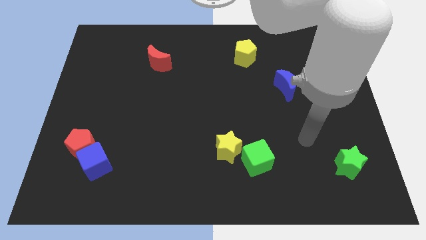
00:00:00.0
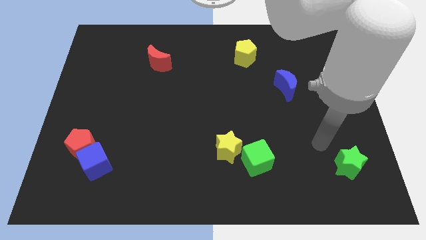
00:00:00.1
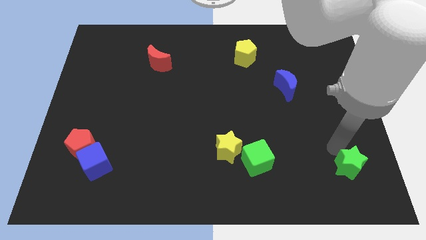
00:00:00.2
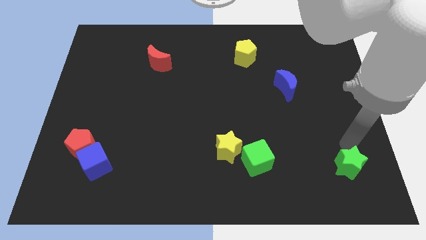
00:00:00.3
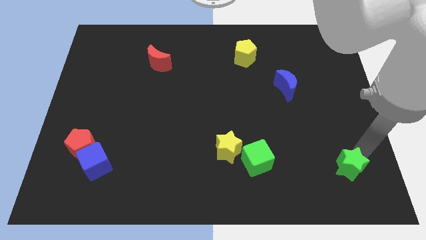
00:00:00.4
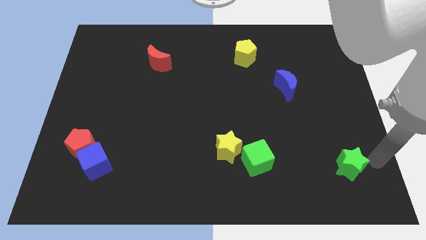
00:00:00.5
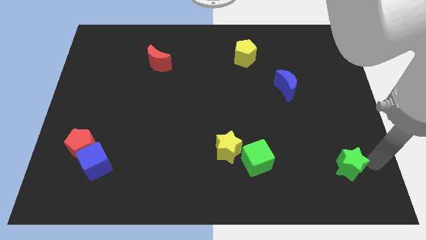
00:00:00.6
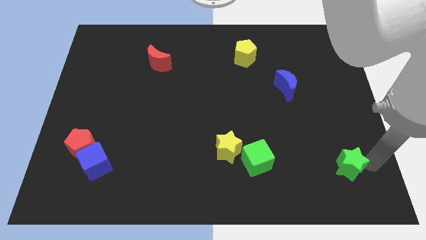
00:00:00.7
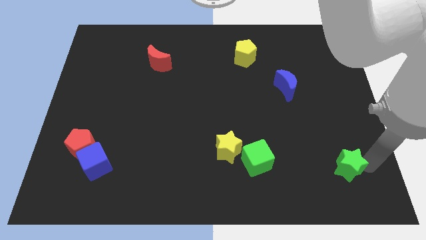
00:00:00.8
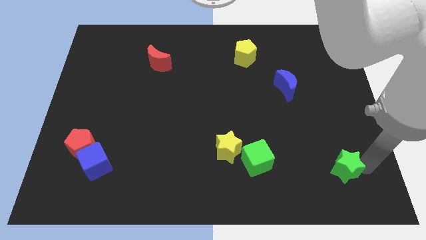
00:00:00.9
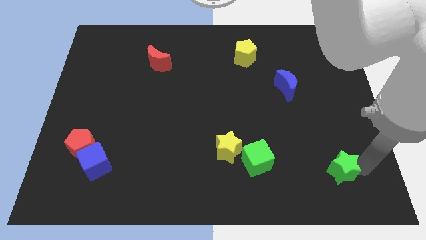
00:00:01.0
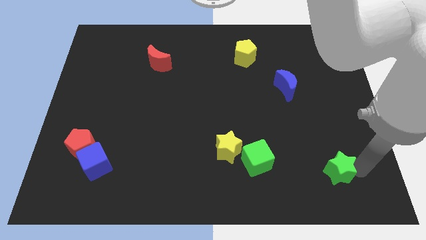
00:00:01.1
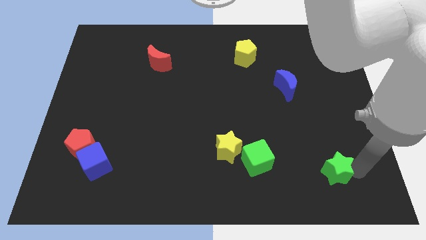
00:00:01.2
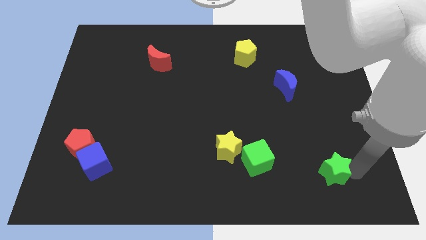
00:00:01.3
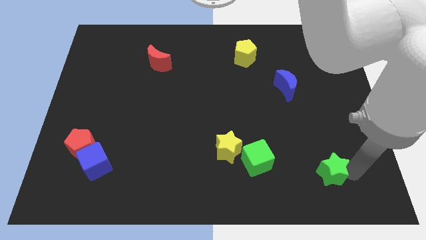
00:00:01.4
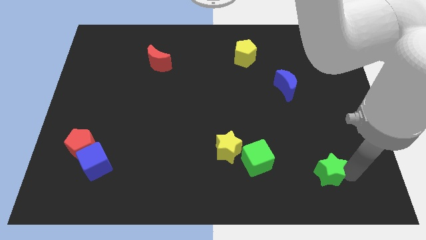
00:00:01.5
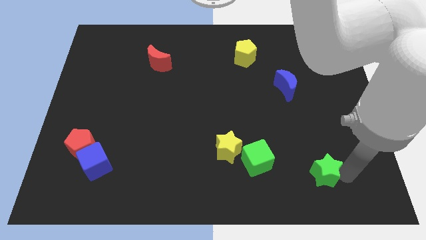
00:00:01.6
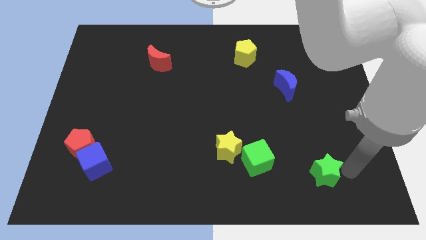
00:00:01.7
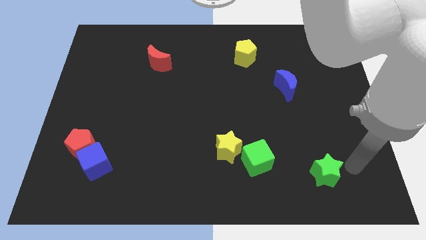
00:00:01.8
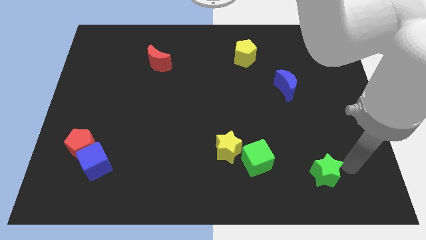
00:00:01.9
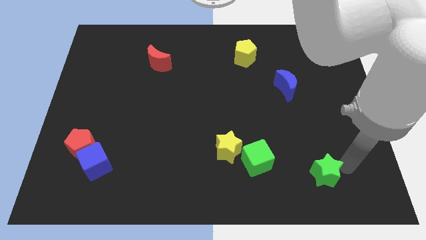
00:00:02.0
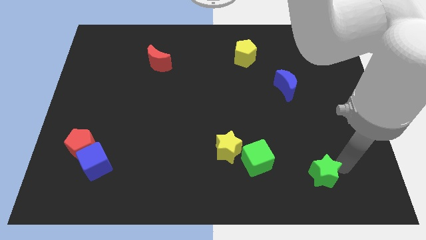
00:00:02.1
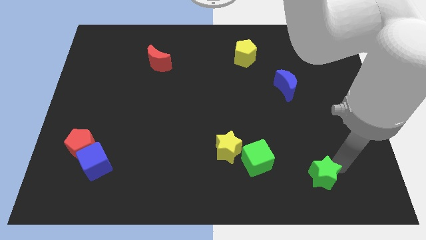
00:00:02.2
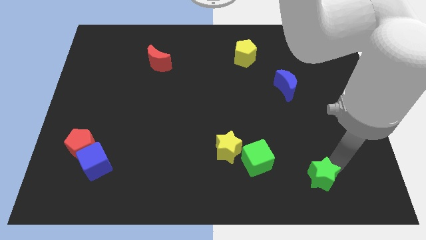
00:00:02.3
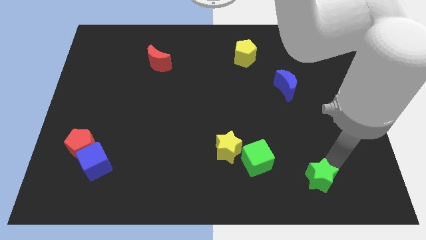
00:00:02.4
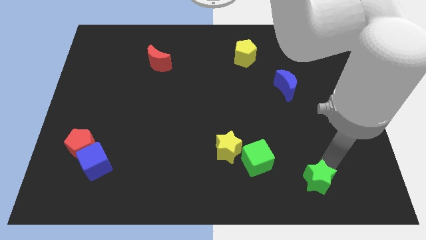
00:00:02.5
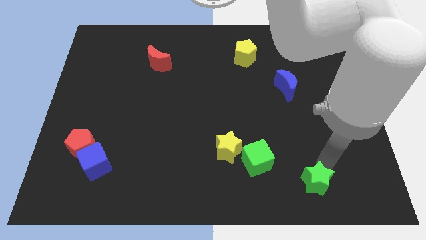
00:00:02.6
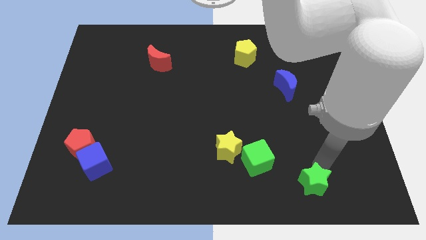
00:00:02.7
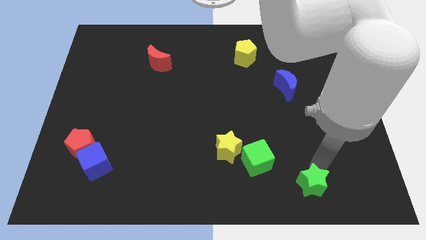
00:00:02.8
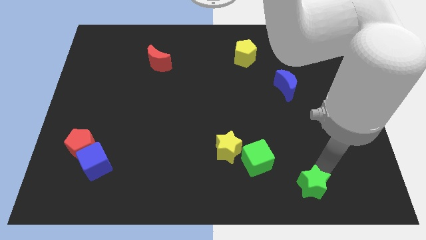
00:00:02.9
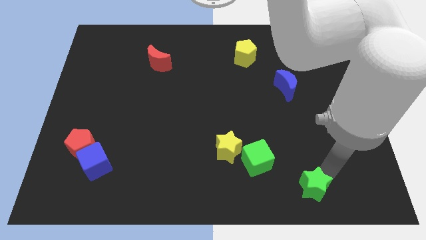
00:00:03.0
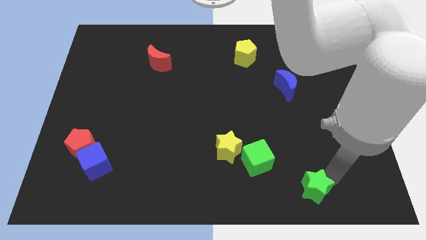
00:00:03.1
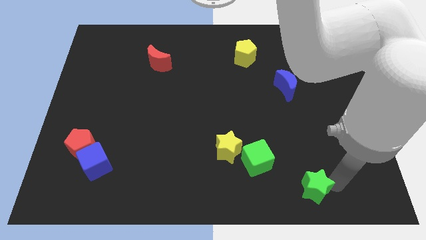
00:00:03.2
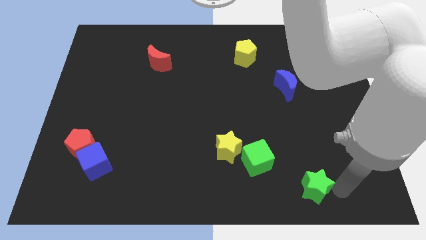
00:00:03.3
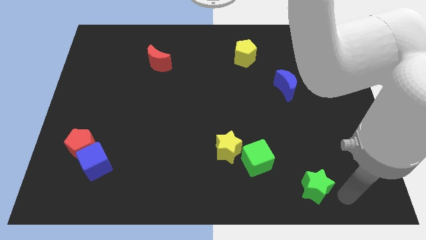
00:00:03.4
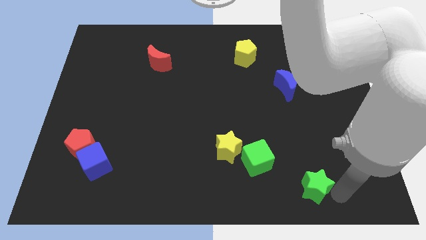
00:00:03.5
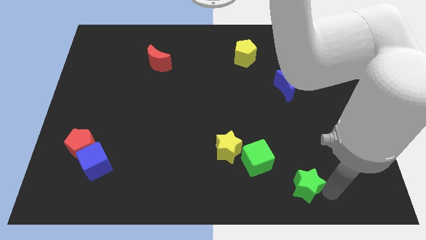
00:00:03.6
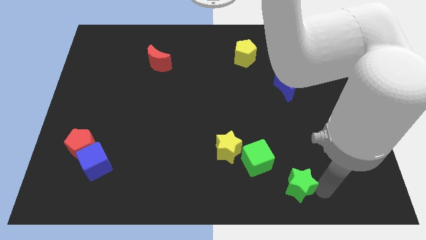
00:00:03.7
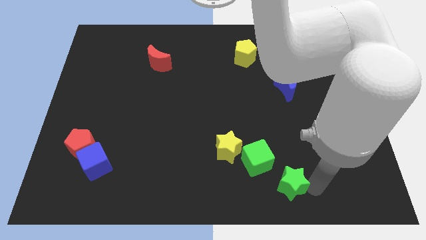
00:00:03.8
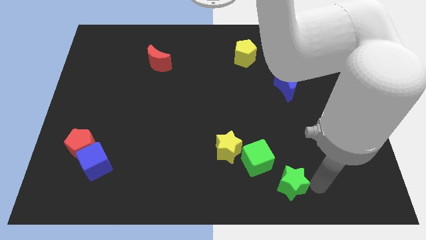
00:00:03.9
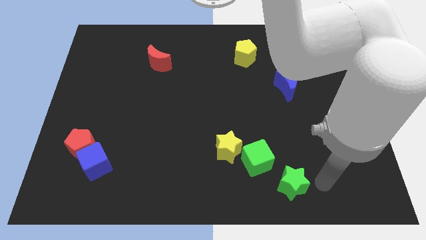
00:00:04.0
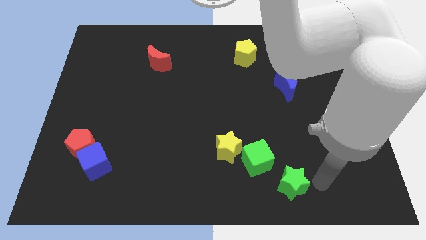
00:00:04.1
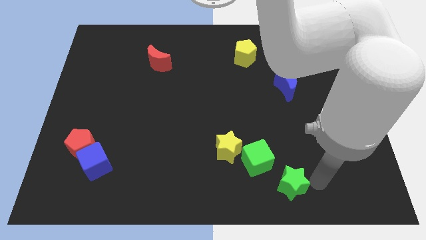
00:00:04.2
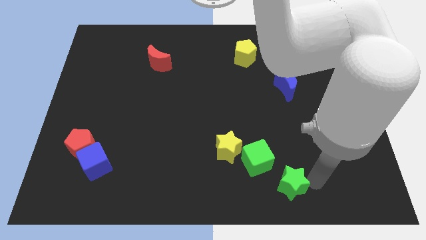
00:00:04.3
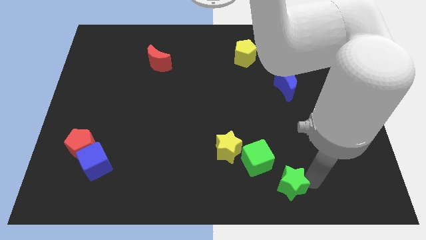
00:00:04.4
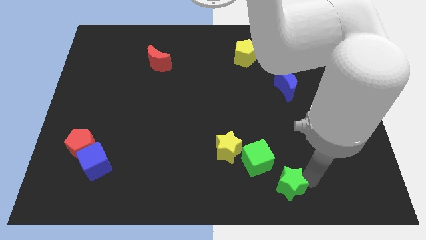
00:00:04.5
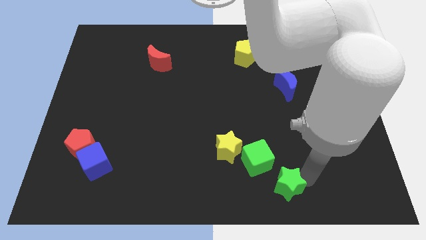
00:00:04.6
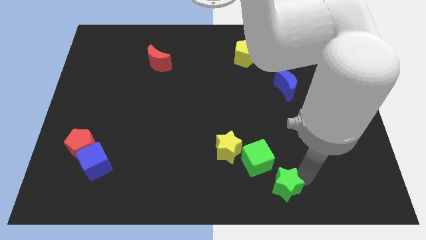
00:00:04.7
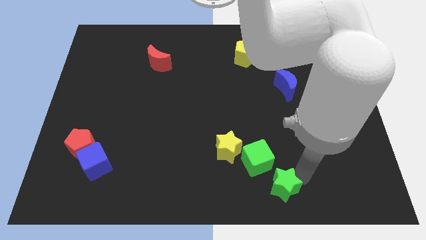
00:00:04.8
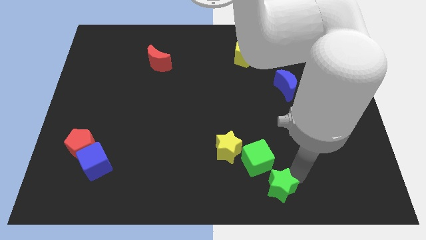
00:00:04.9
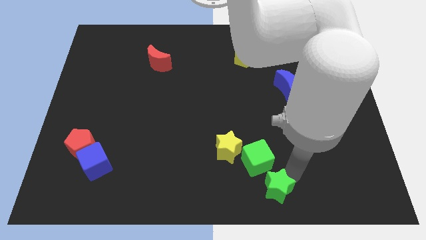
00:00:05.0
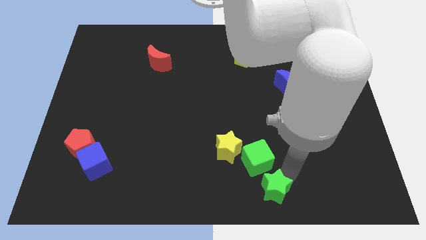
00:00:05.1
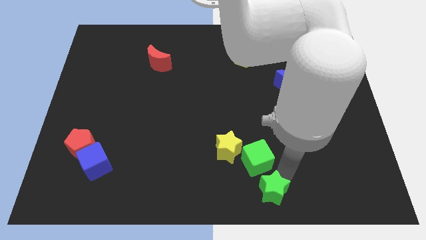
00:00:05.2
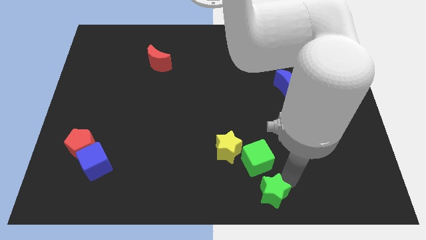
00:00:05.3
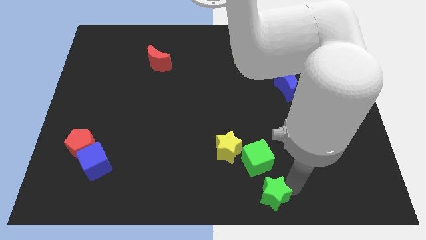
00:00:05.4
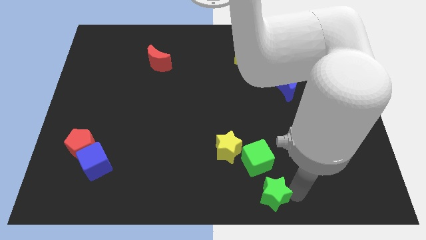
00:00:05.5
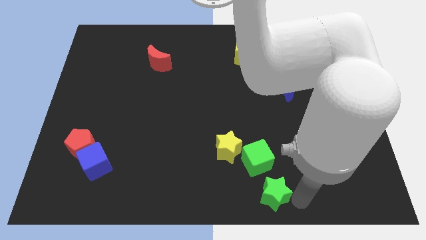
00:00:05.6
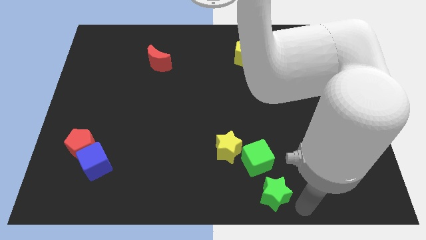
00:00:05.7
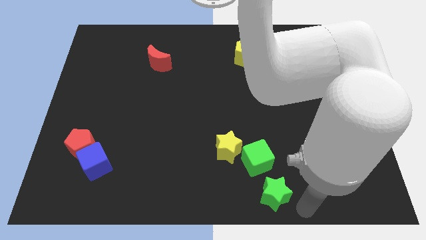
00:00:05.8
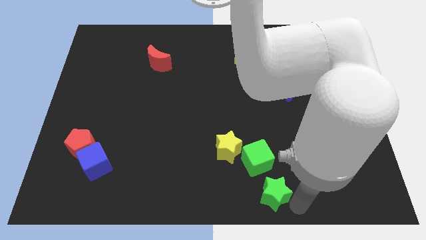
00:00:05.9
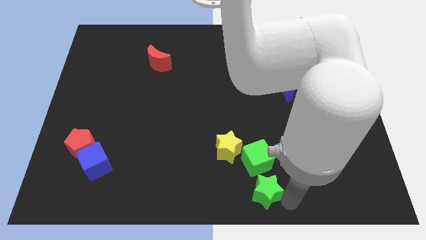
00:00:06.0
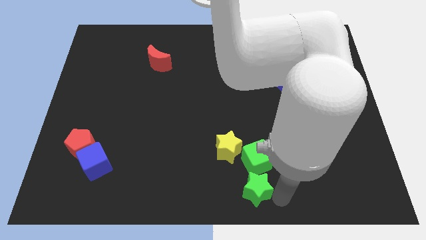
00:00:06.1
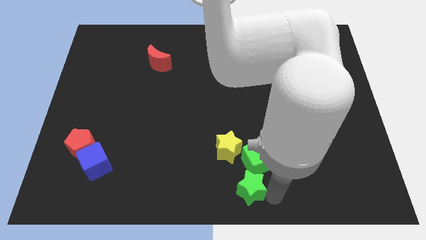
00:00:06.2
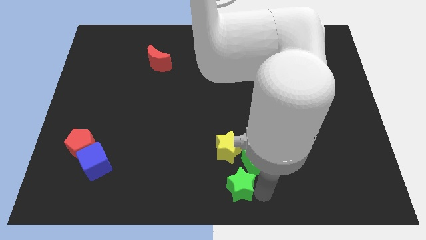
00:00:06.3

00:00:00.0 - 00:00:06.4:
slide the green star left

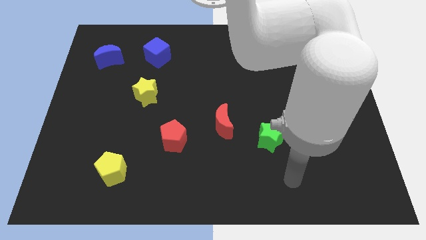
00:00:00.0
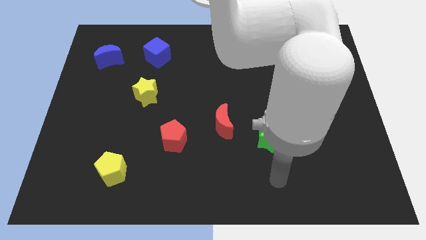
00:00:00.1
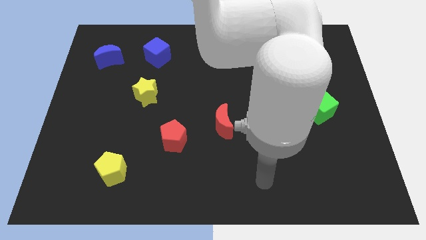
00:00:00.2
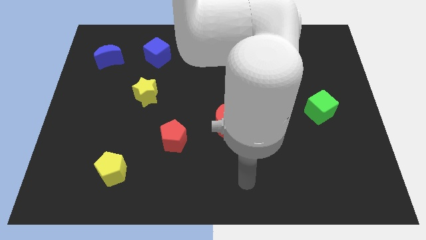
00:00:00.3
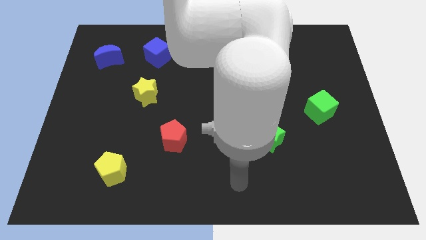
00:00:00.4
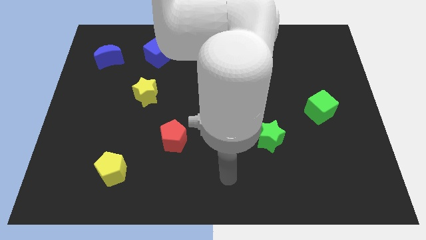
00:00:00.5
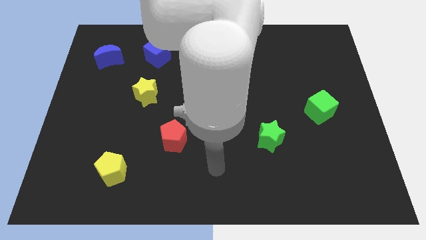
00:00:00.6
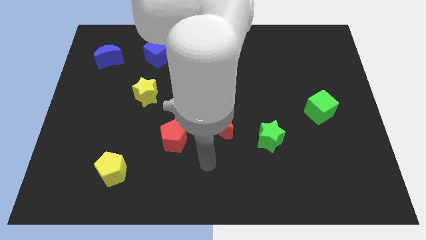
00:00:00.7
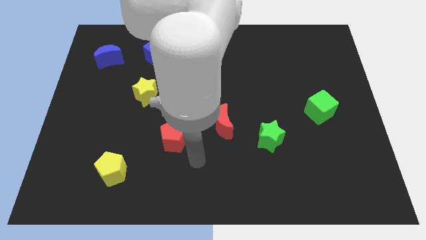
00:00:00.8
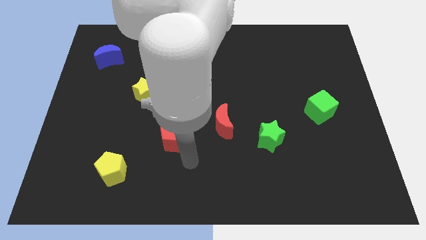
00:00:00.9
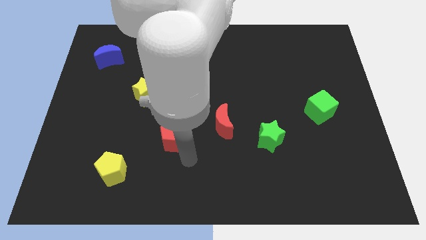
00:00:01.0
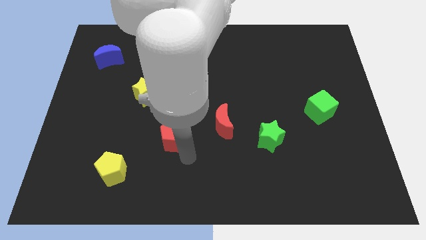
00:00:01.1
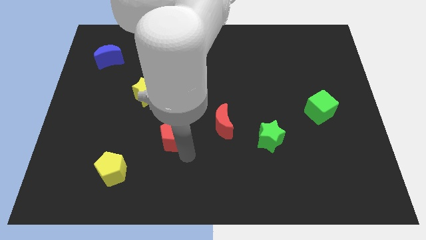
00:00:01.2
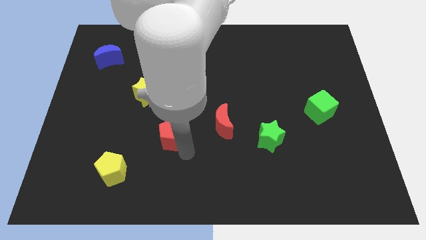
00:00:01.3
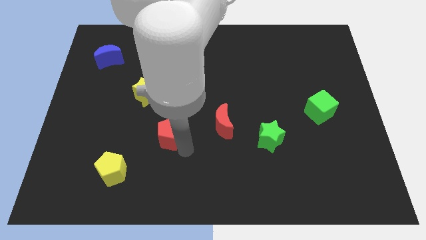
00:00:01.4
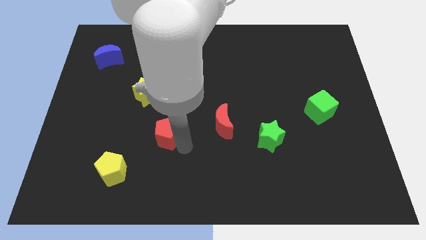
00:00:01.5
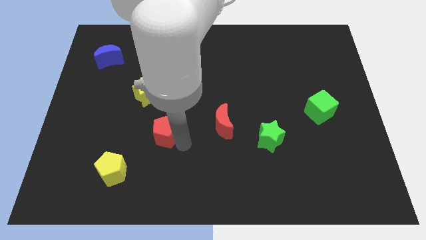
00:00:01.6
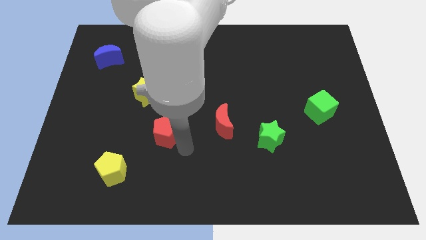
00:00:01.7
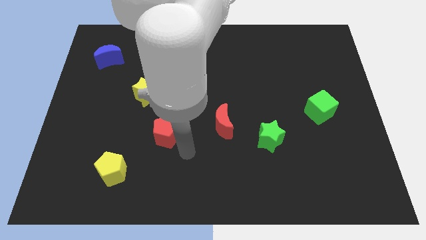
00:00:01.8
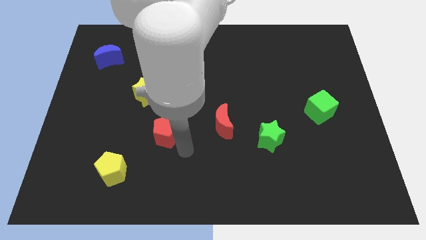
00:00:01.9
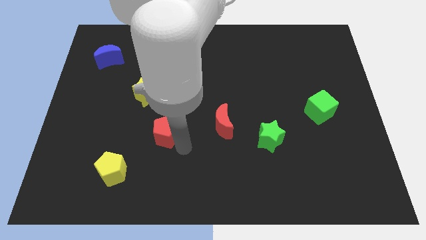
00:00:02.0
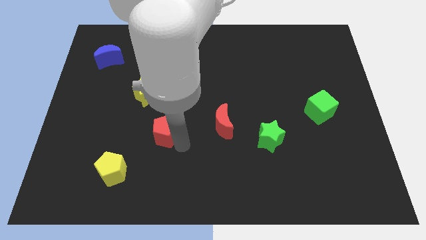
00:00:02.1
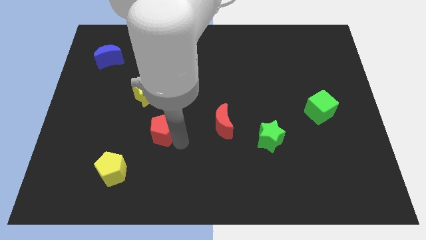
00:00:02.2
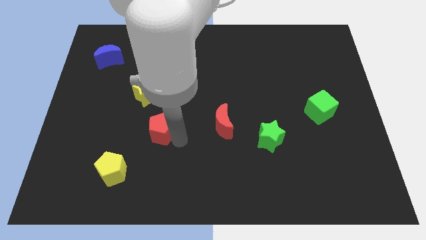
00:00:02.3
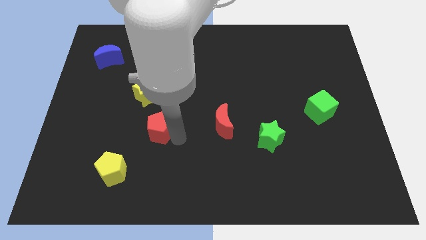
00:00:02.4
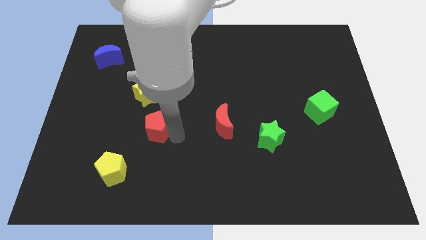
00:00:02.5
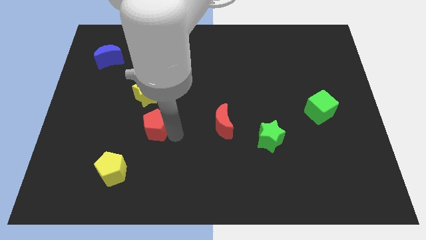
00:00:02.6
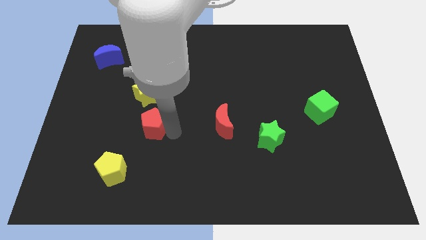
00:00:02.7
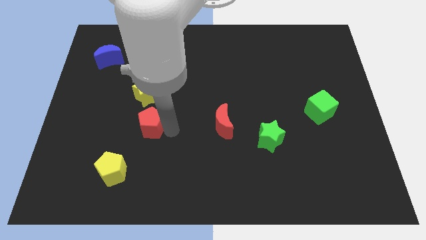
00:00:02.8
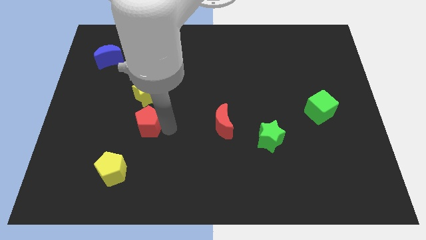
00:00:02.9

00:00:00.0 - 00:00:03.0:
slightly move the red pentagon upwards and then left
